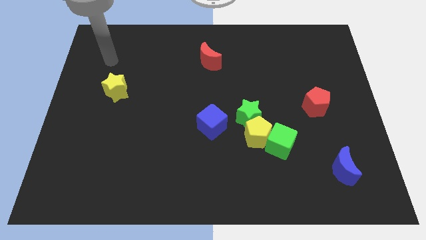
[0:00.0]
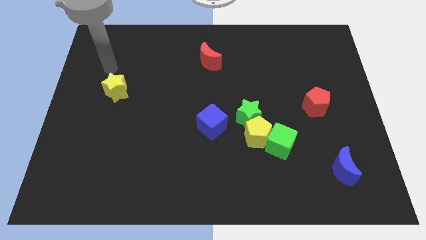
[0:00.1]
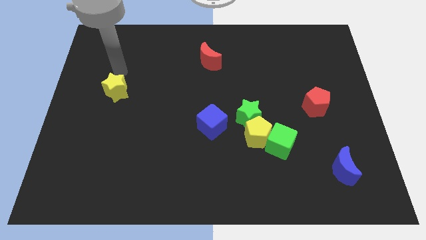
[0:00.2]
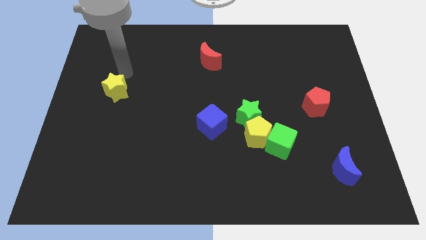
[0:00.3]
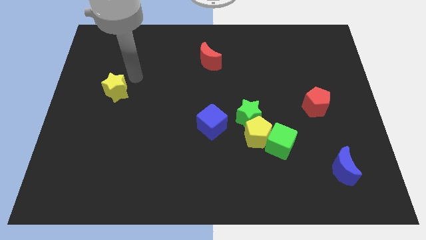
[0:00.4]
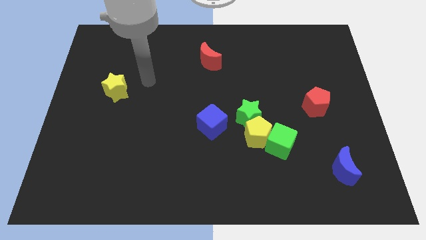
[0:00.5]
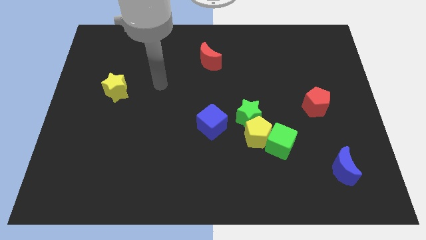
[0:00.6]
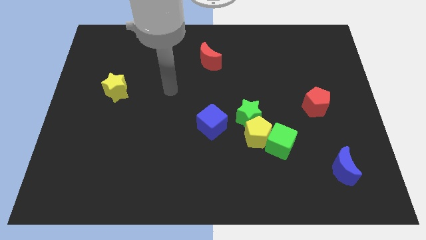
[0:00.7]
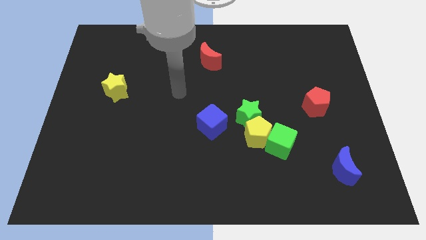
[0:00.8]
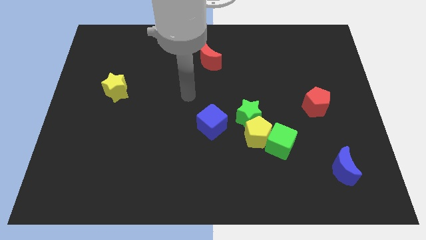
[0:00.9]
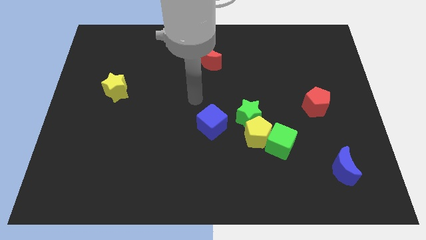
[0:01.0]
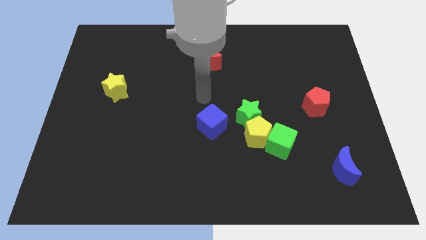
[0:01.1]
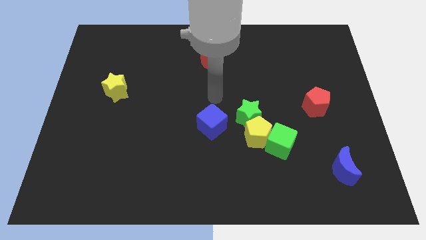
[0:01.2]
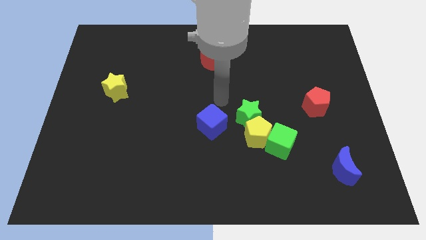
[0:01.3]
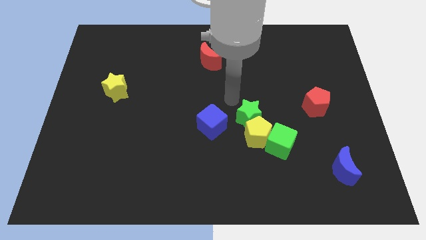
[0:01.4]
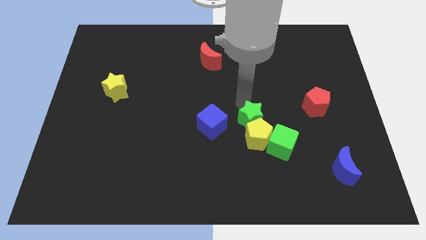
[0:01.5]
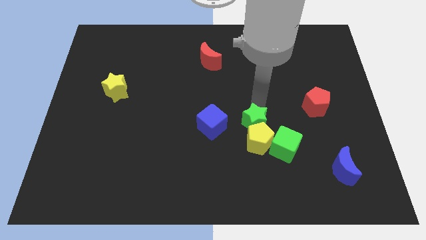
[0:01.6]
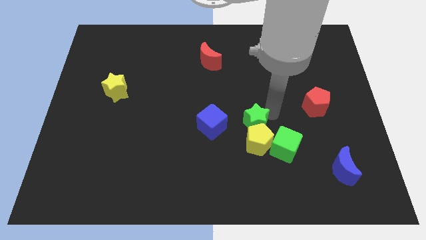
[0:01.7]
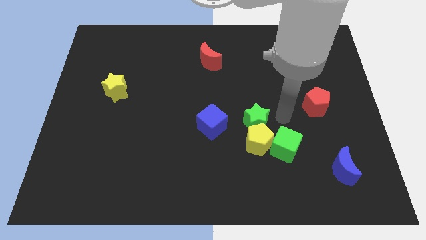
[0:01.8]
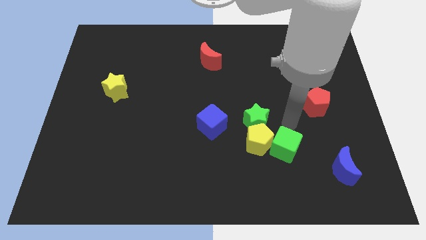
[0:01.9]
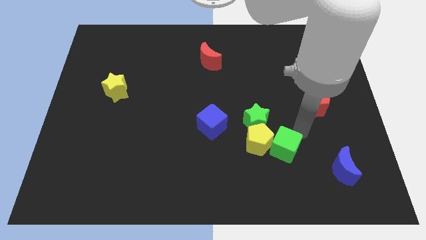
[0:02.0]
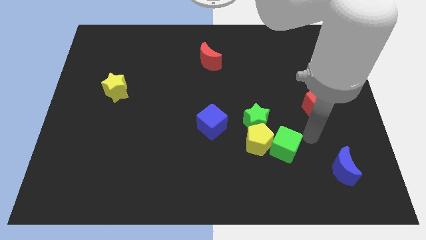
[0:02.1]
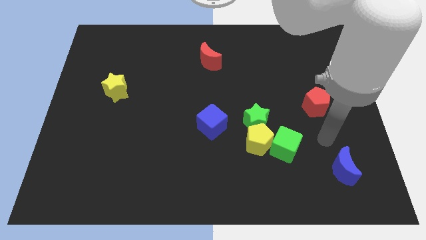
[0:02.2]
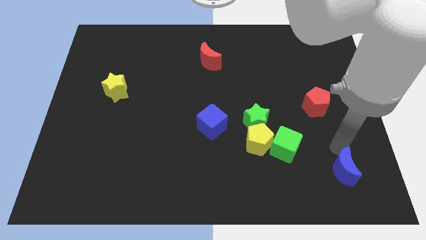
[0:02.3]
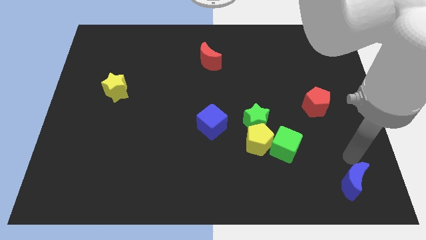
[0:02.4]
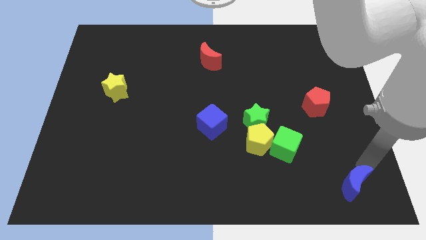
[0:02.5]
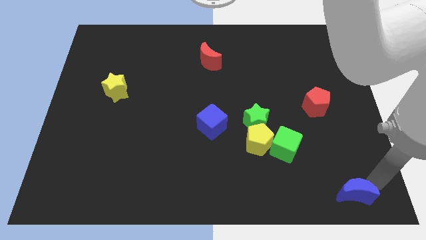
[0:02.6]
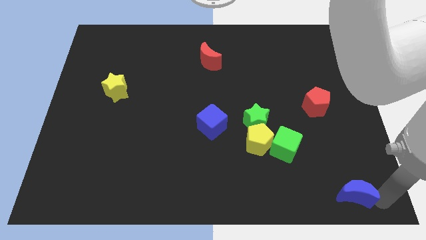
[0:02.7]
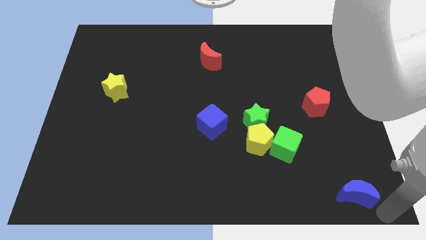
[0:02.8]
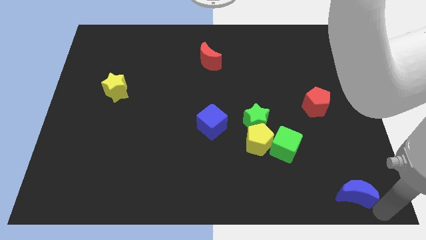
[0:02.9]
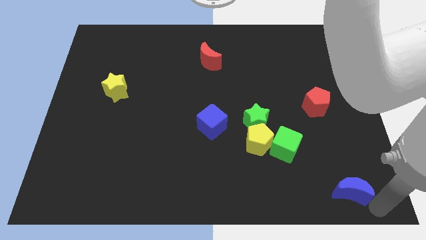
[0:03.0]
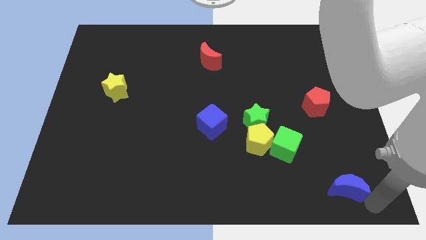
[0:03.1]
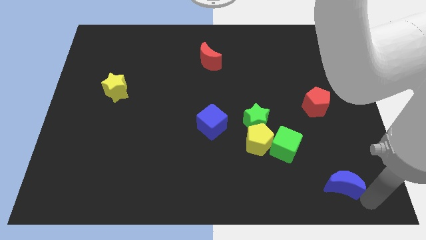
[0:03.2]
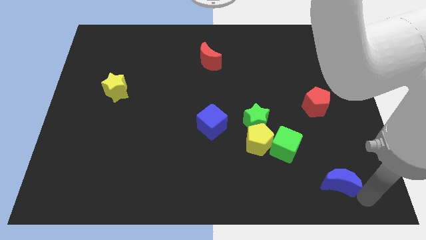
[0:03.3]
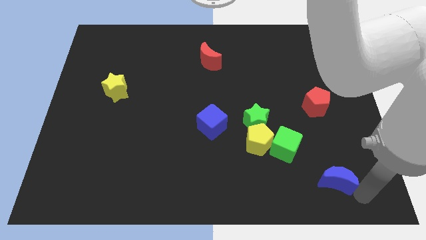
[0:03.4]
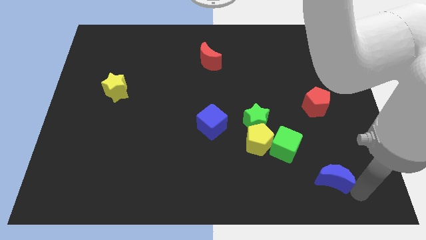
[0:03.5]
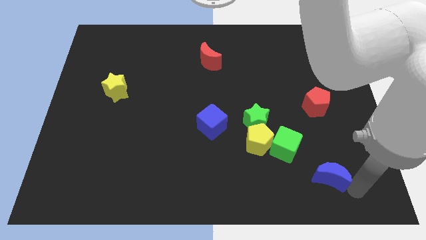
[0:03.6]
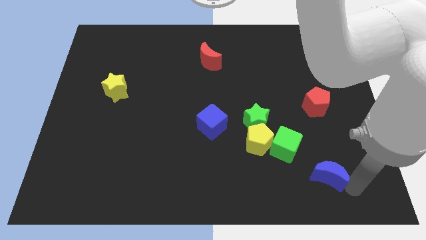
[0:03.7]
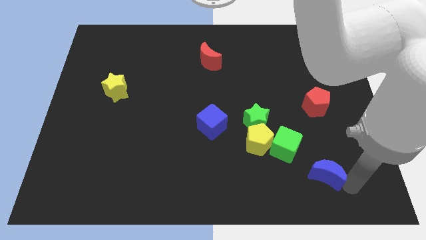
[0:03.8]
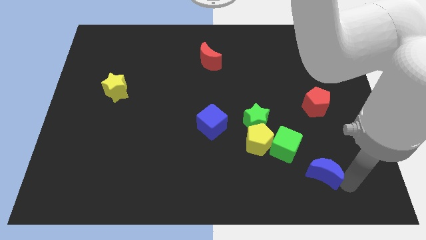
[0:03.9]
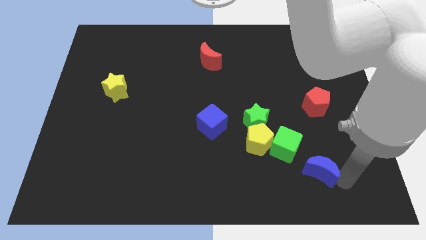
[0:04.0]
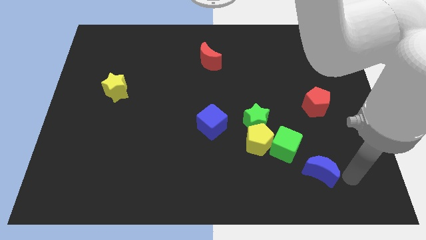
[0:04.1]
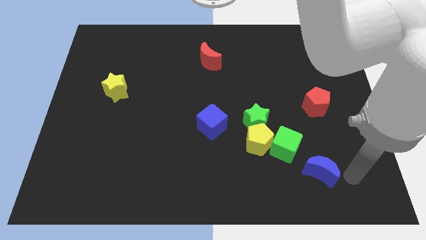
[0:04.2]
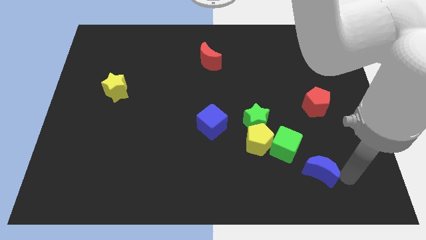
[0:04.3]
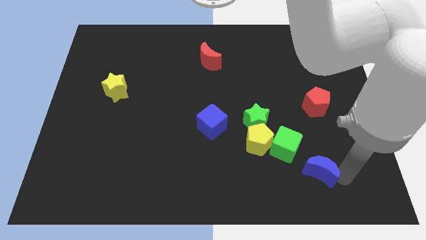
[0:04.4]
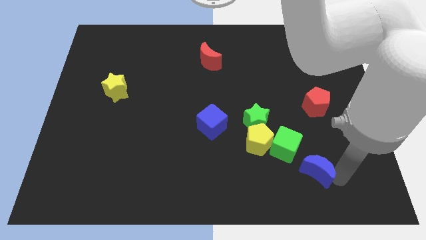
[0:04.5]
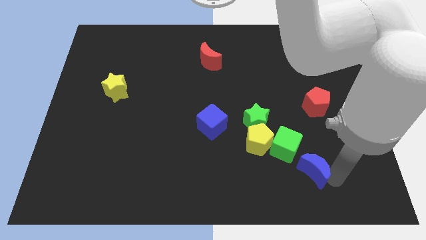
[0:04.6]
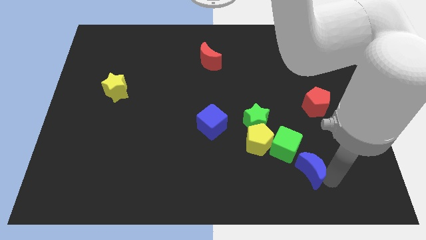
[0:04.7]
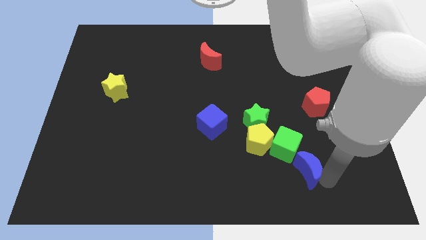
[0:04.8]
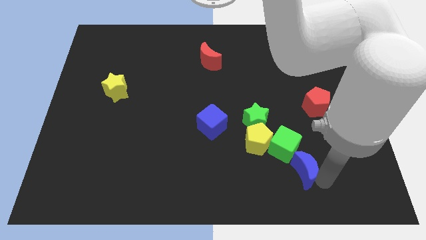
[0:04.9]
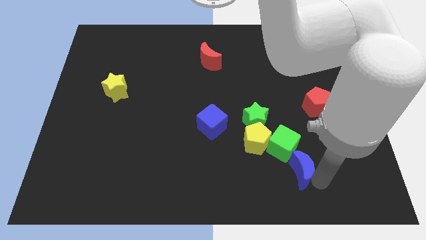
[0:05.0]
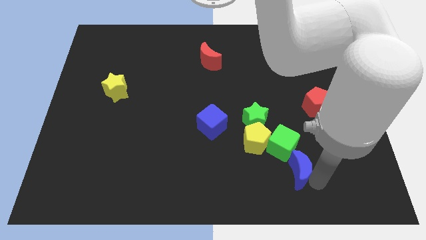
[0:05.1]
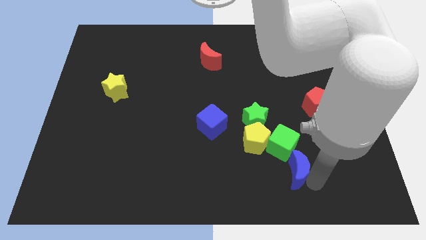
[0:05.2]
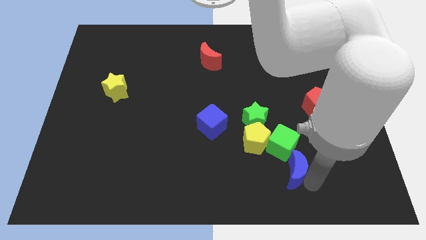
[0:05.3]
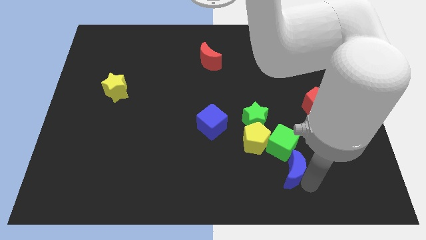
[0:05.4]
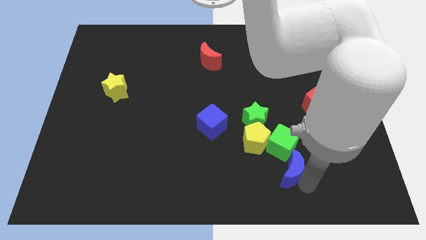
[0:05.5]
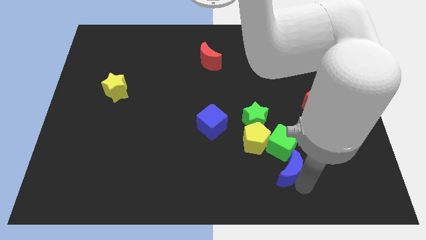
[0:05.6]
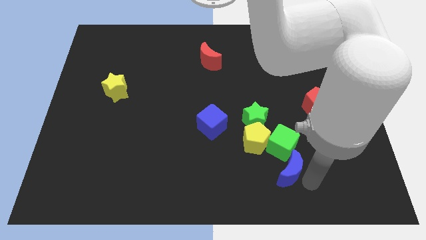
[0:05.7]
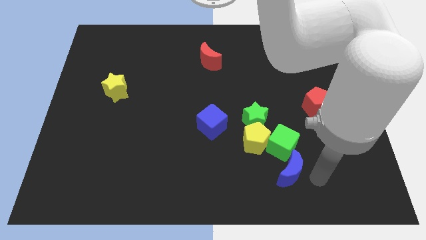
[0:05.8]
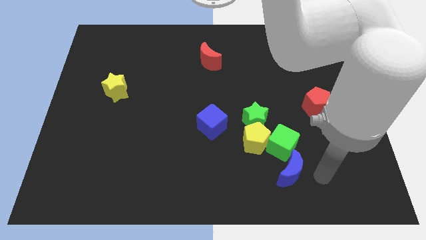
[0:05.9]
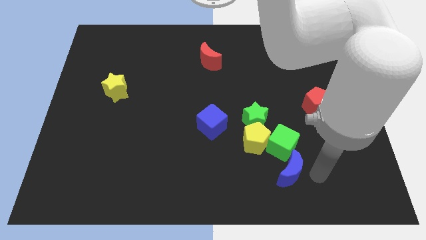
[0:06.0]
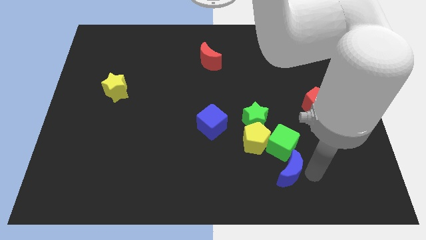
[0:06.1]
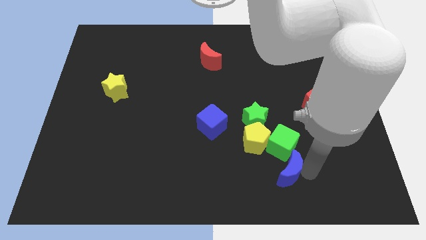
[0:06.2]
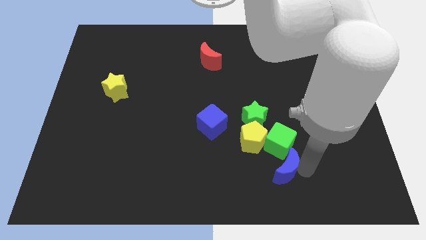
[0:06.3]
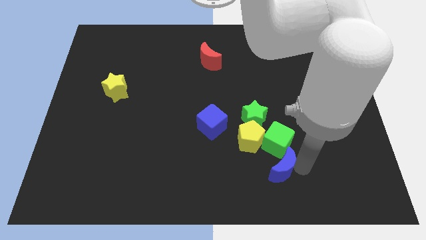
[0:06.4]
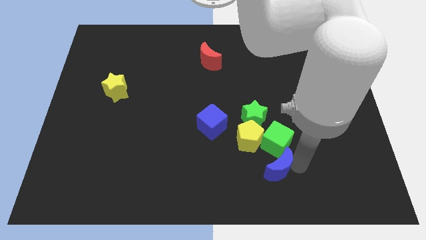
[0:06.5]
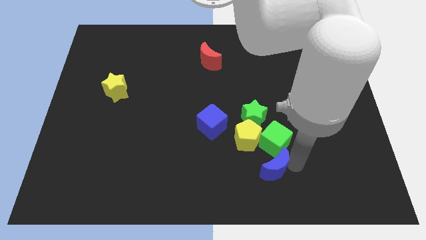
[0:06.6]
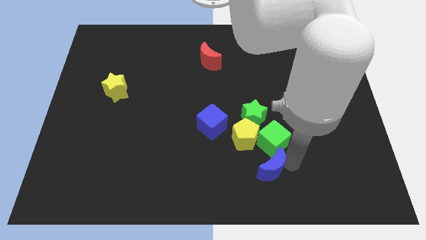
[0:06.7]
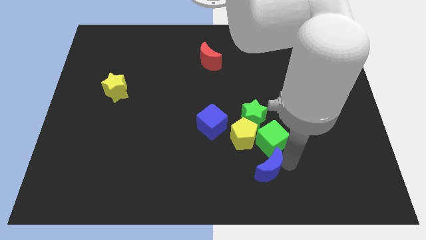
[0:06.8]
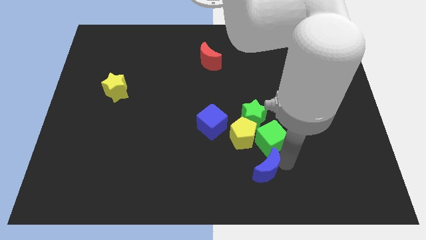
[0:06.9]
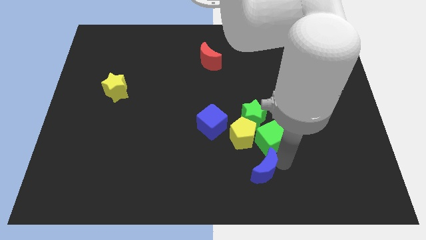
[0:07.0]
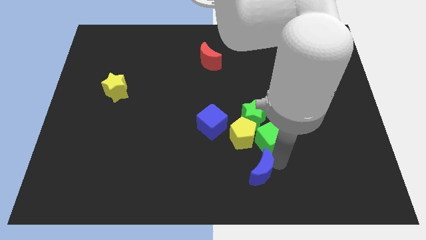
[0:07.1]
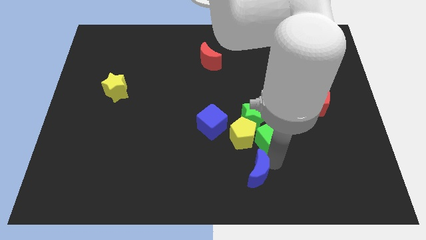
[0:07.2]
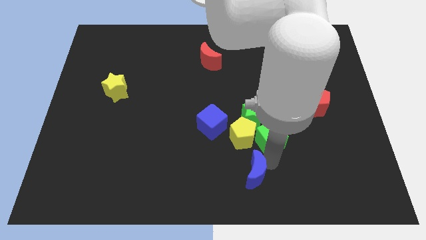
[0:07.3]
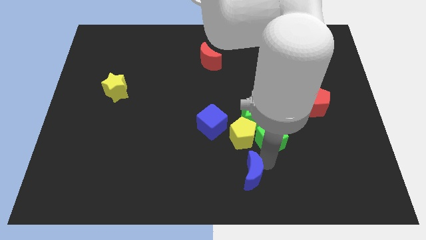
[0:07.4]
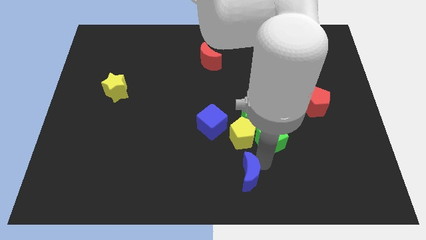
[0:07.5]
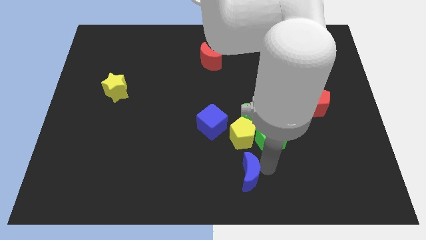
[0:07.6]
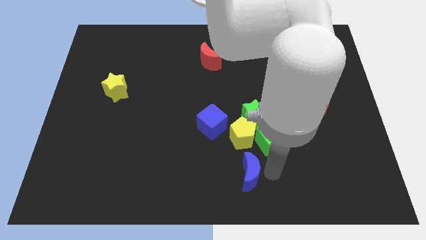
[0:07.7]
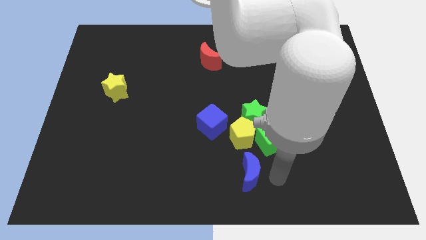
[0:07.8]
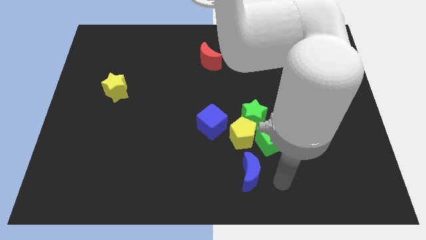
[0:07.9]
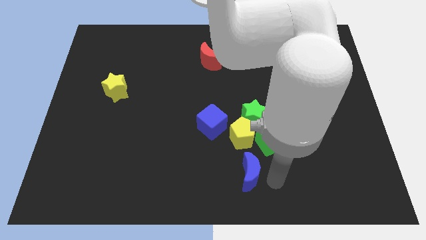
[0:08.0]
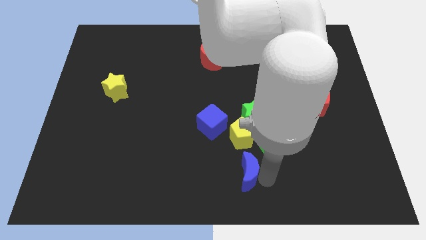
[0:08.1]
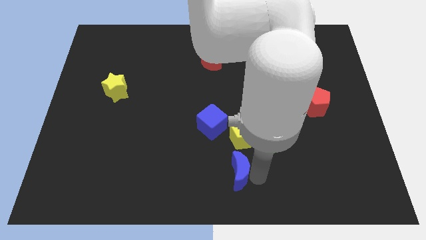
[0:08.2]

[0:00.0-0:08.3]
move the blue moon left
